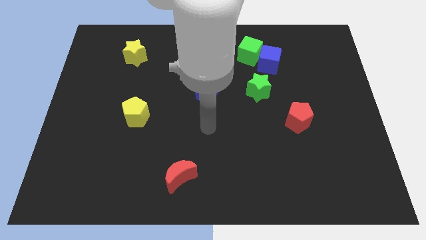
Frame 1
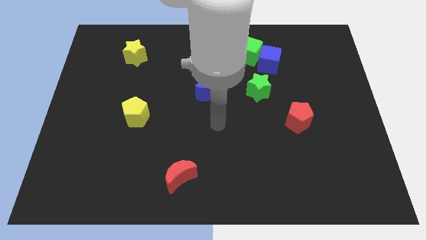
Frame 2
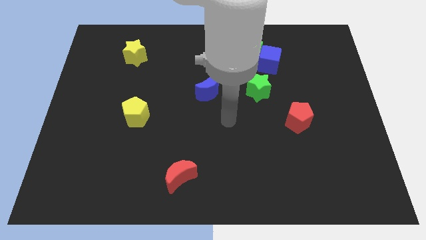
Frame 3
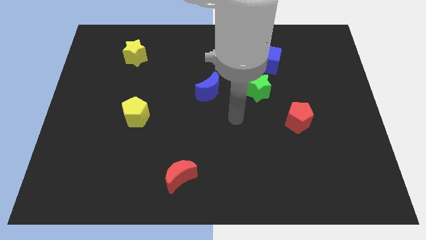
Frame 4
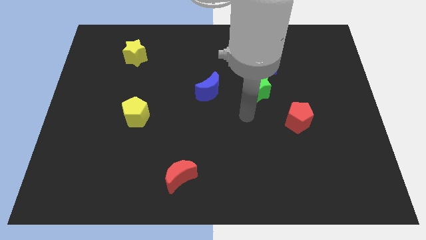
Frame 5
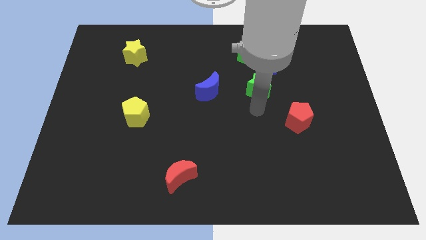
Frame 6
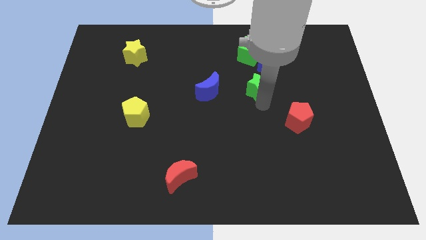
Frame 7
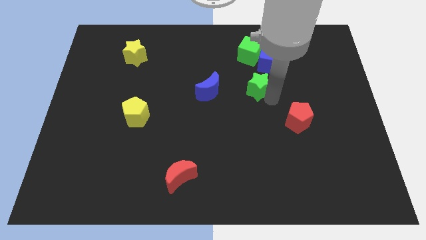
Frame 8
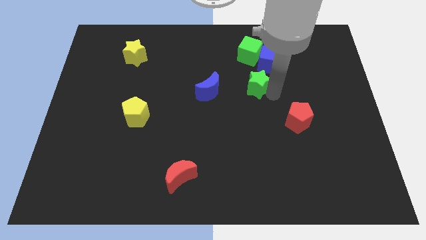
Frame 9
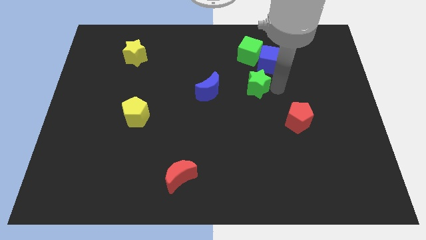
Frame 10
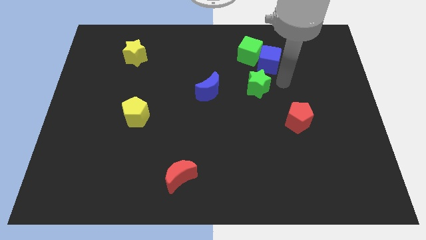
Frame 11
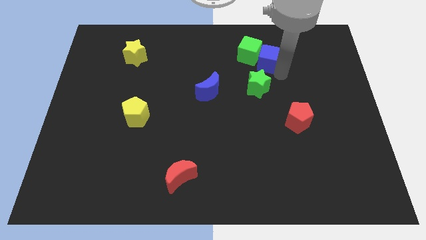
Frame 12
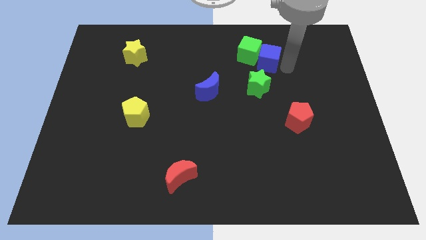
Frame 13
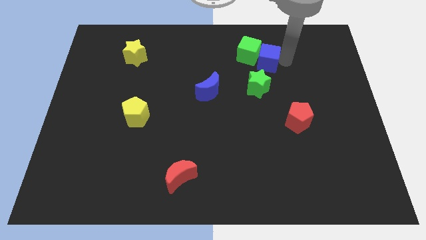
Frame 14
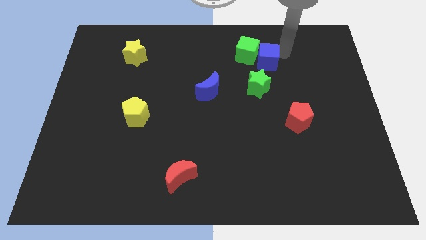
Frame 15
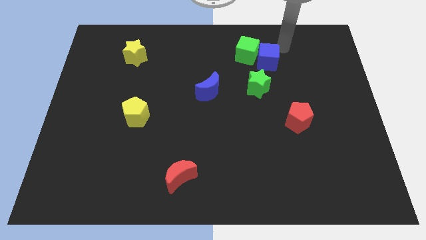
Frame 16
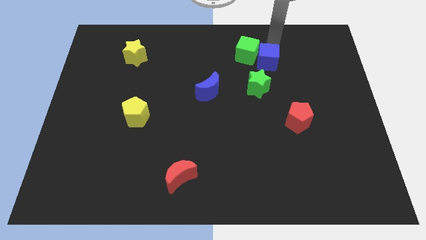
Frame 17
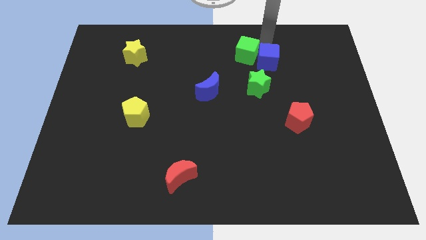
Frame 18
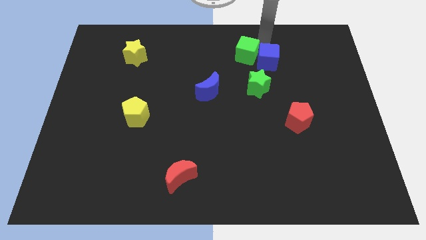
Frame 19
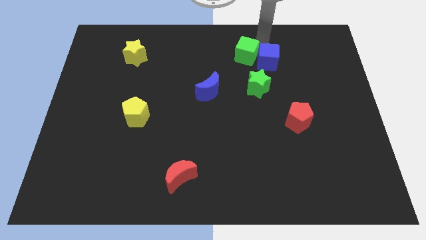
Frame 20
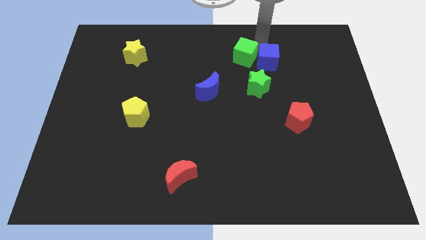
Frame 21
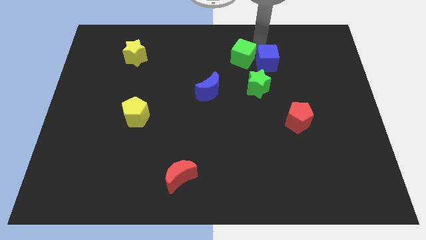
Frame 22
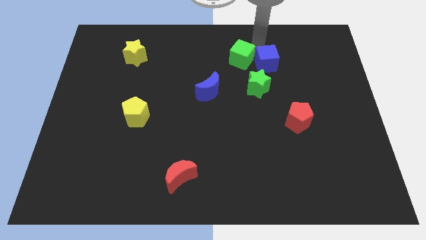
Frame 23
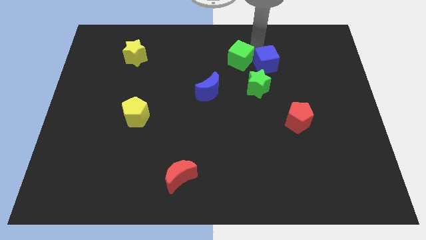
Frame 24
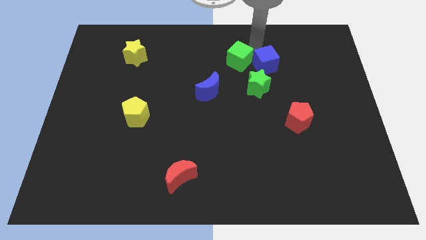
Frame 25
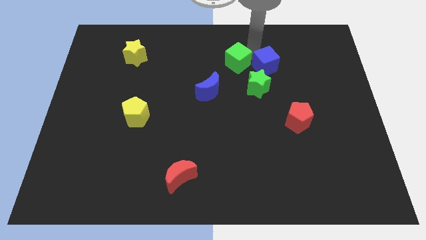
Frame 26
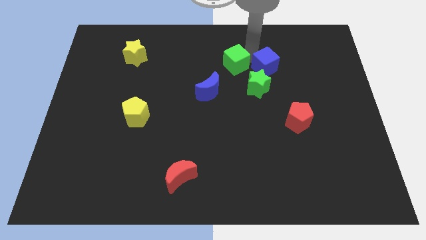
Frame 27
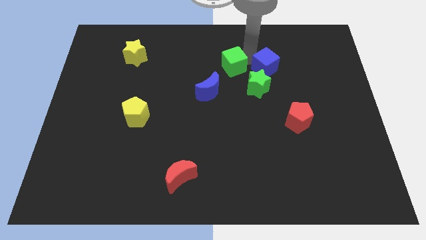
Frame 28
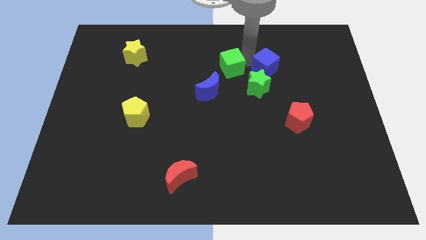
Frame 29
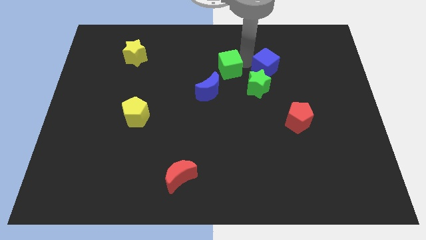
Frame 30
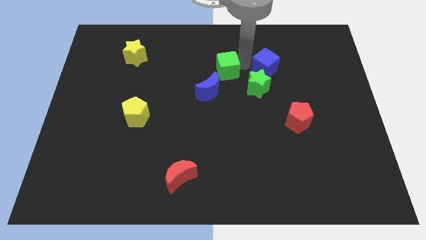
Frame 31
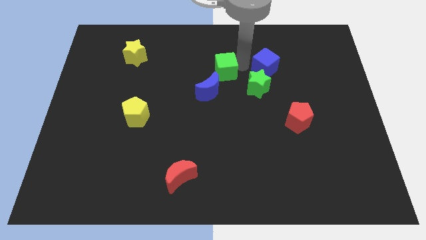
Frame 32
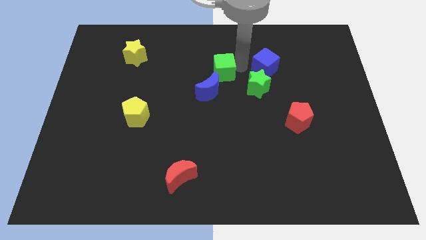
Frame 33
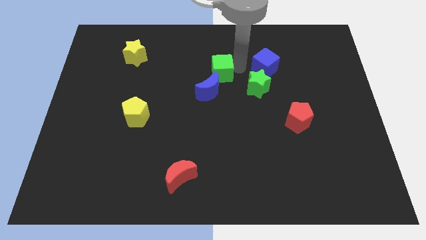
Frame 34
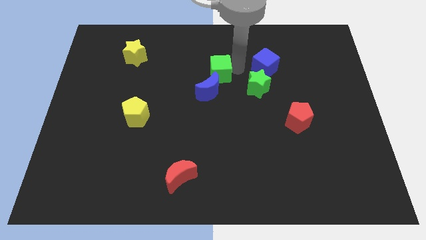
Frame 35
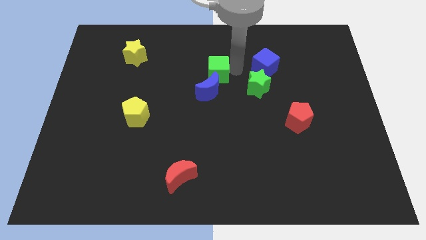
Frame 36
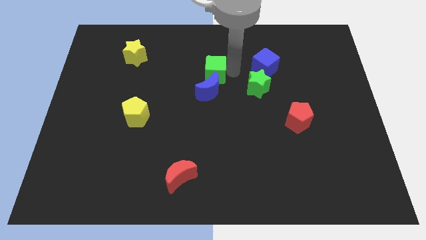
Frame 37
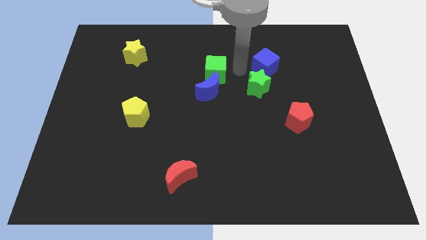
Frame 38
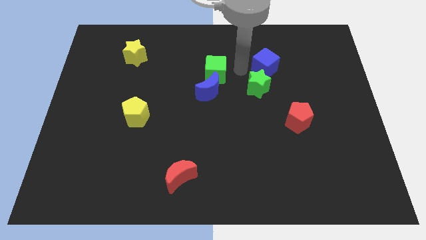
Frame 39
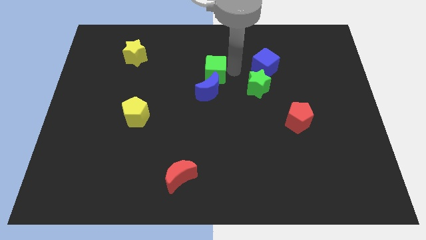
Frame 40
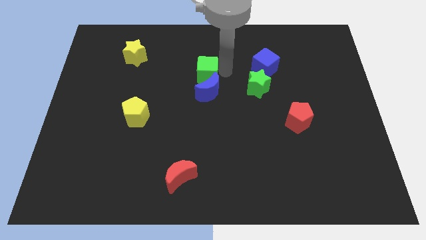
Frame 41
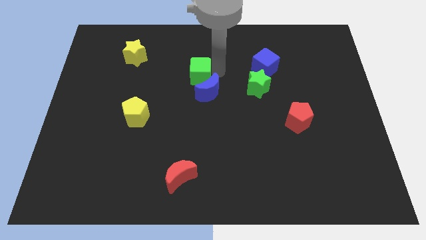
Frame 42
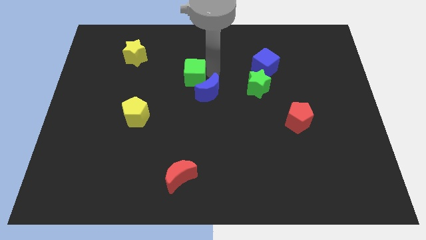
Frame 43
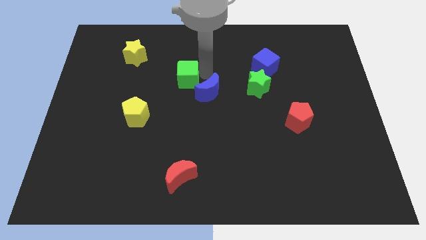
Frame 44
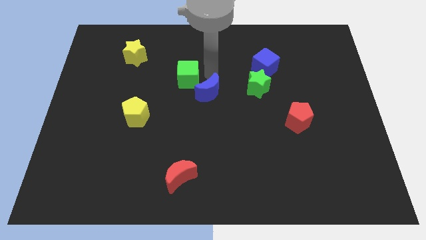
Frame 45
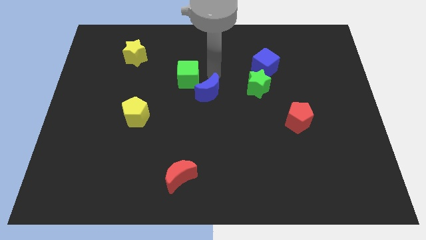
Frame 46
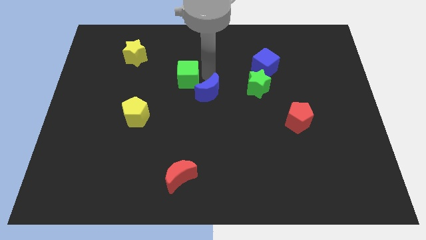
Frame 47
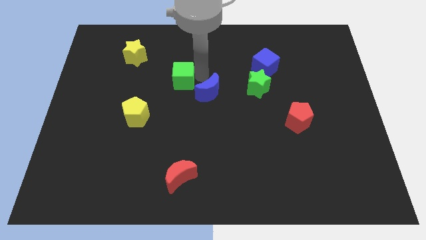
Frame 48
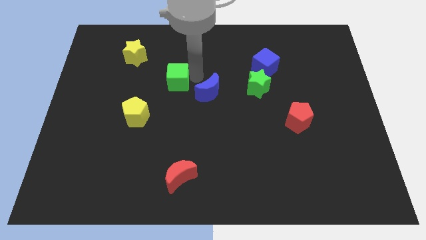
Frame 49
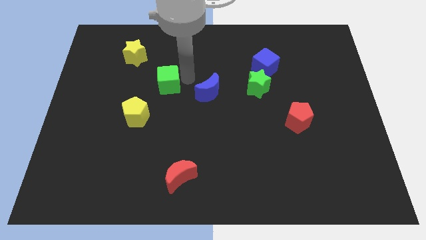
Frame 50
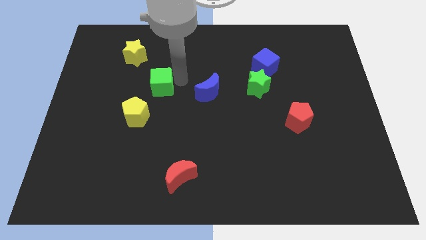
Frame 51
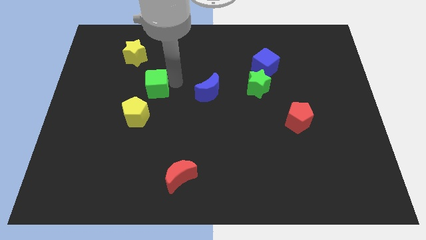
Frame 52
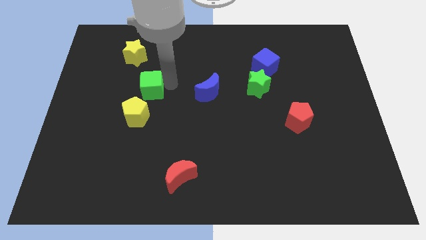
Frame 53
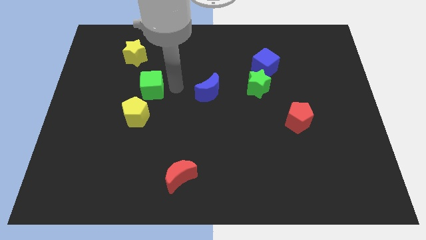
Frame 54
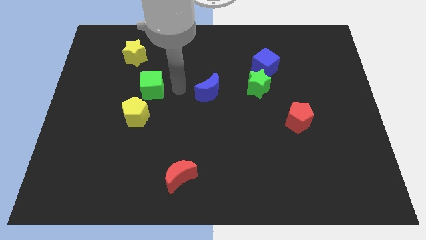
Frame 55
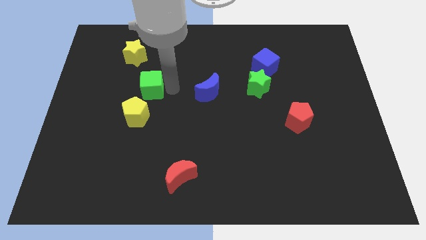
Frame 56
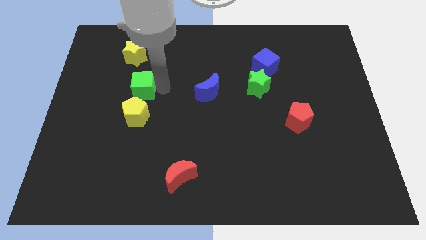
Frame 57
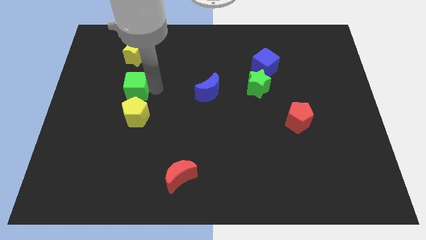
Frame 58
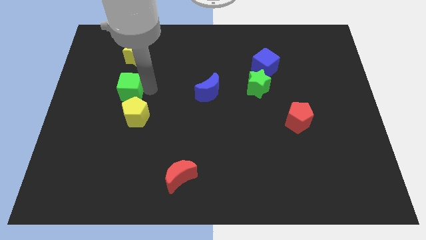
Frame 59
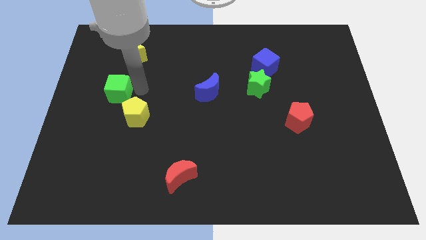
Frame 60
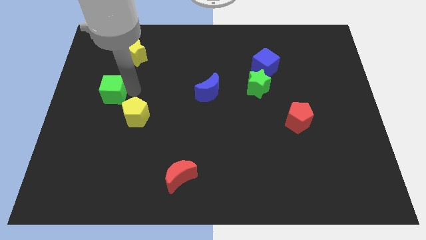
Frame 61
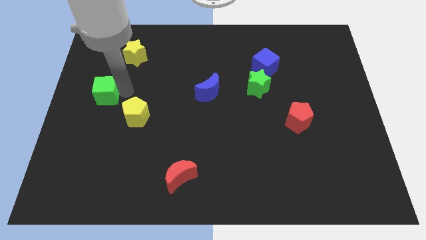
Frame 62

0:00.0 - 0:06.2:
slide the green cube to the left side

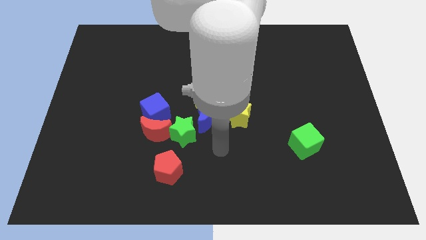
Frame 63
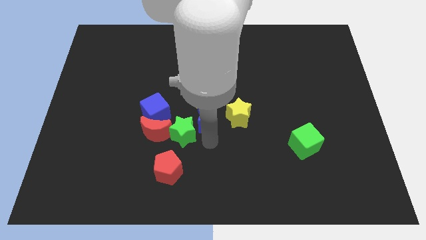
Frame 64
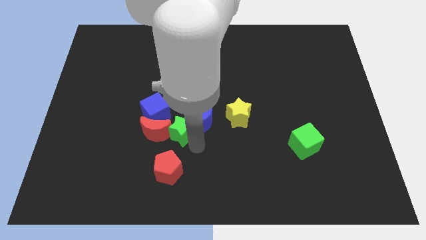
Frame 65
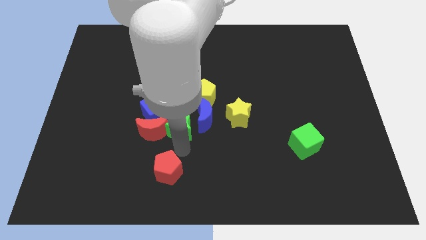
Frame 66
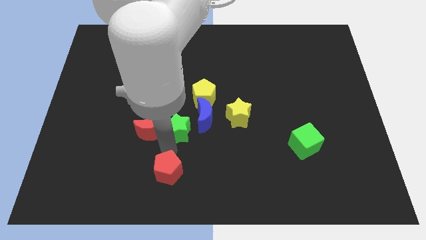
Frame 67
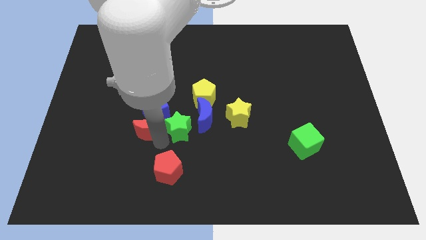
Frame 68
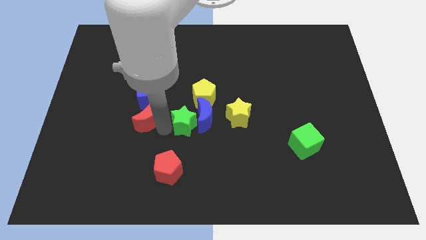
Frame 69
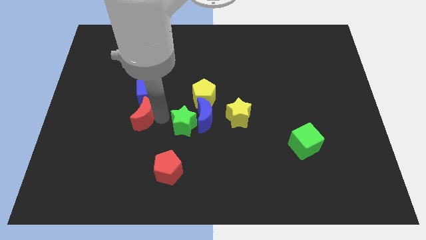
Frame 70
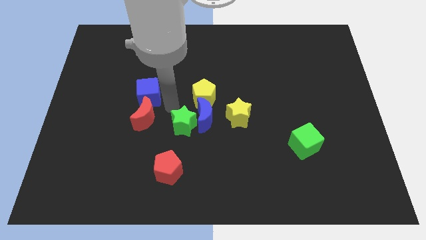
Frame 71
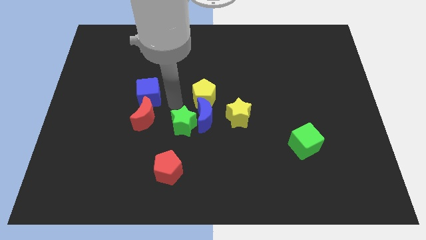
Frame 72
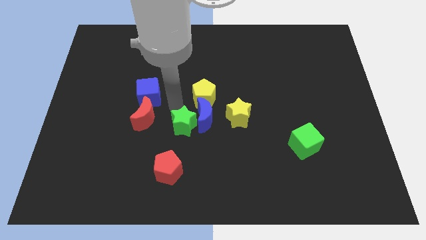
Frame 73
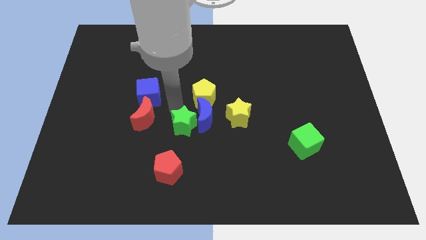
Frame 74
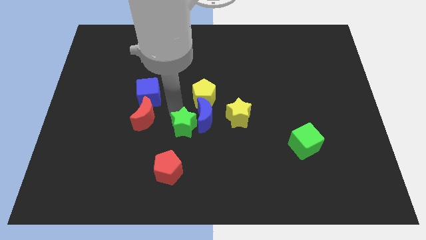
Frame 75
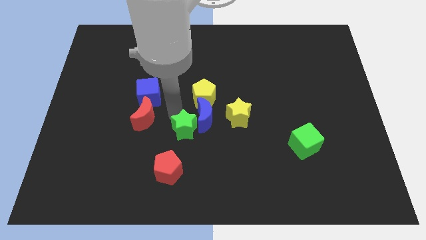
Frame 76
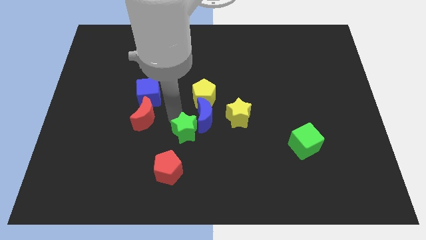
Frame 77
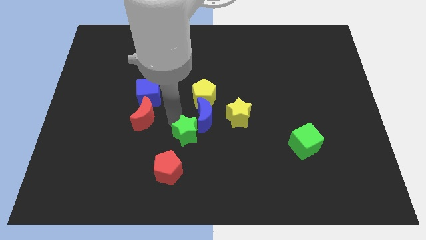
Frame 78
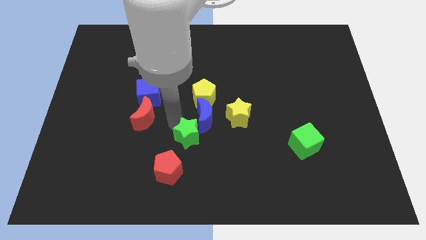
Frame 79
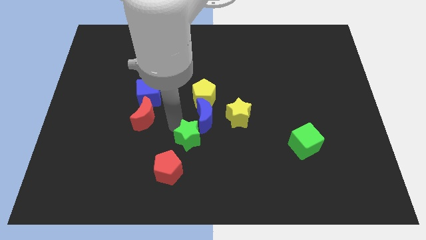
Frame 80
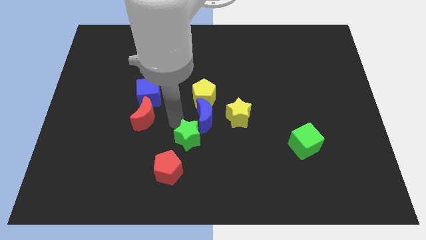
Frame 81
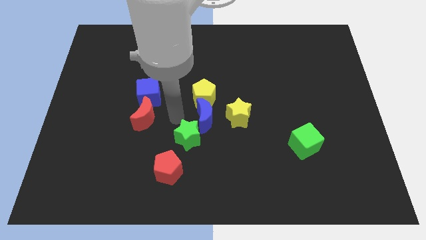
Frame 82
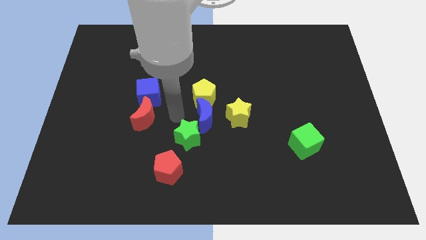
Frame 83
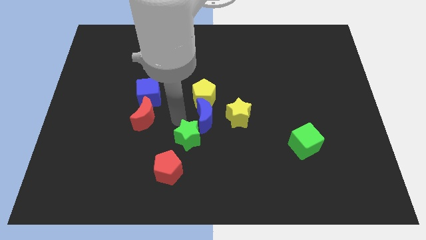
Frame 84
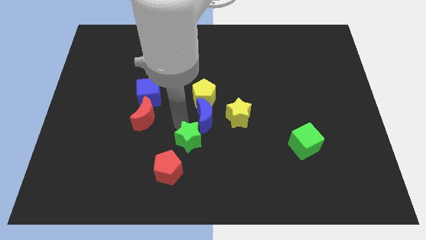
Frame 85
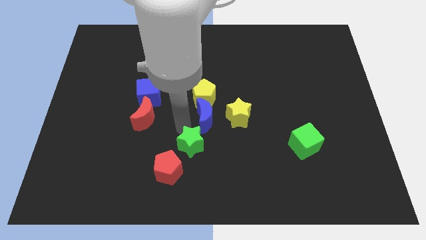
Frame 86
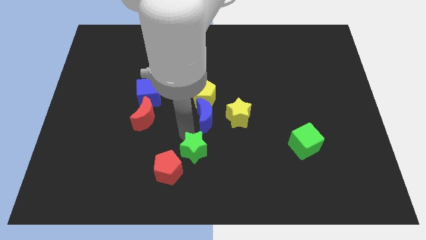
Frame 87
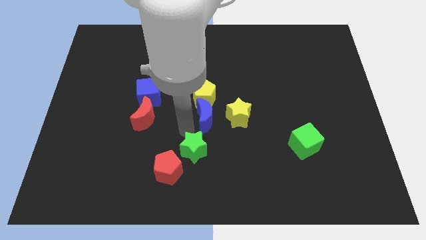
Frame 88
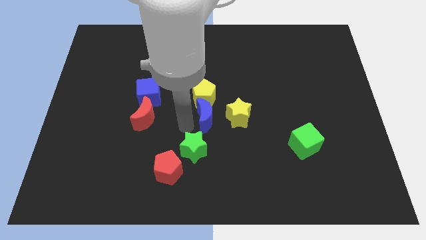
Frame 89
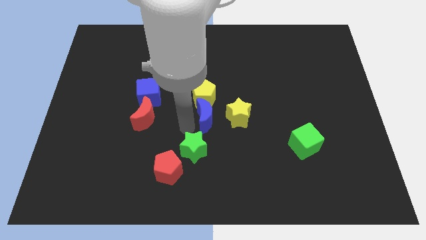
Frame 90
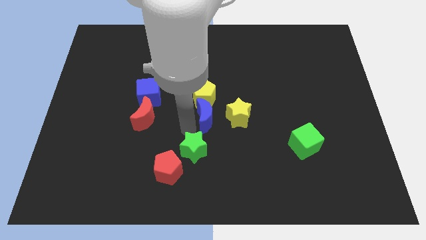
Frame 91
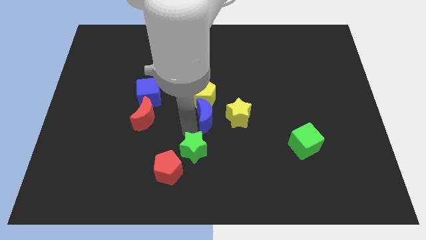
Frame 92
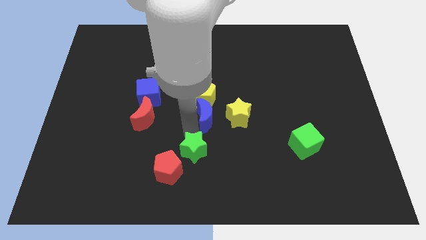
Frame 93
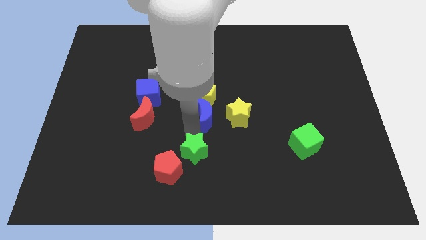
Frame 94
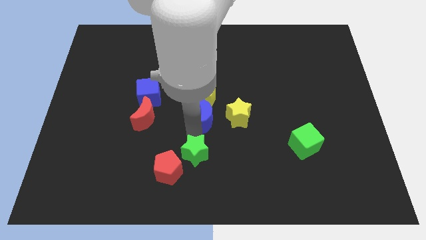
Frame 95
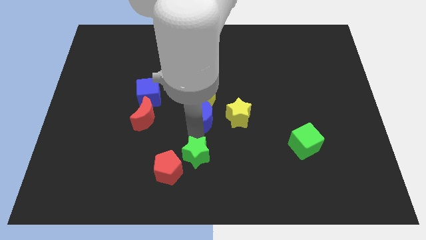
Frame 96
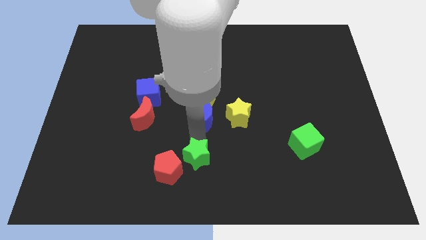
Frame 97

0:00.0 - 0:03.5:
put the green star to the bottom
